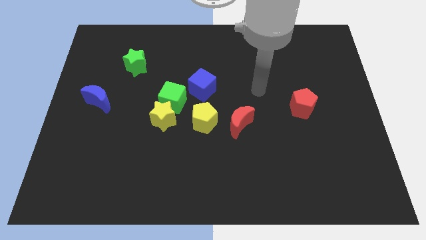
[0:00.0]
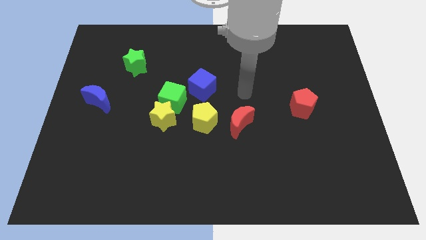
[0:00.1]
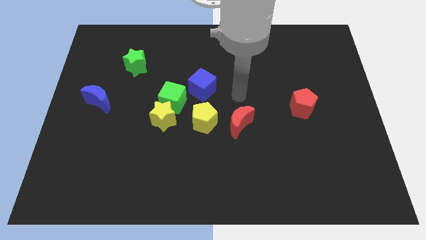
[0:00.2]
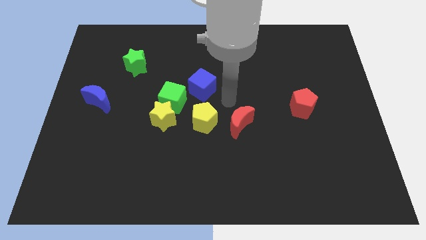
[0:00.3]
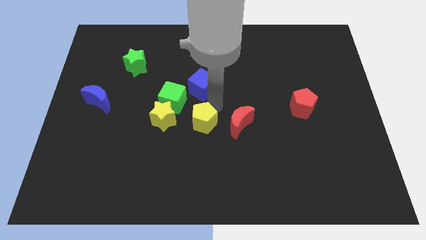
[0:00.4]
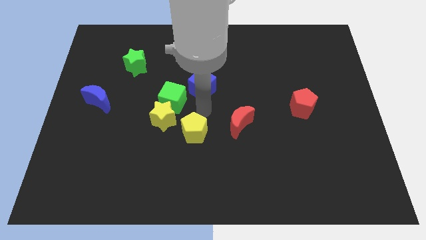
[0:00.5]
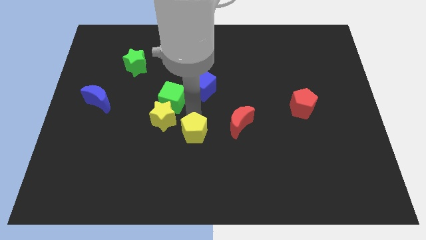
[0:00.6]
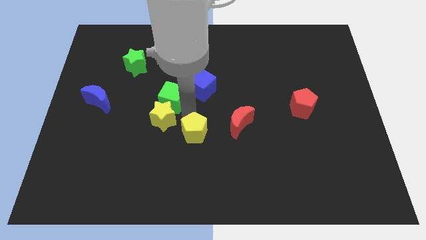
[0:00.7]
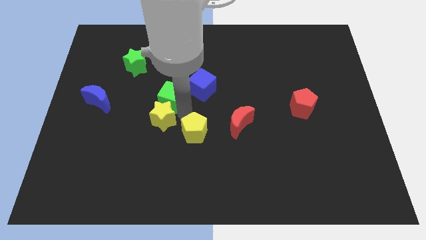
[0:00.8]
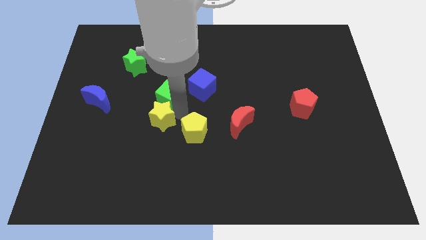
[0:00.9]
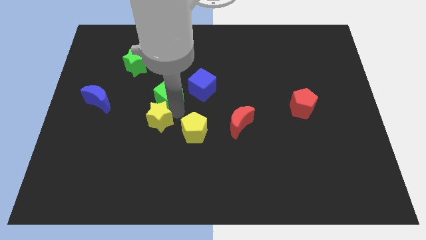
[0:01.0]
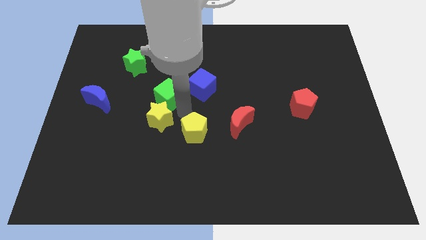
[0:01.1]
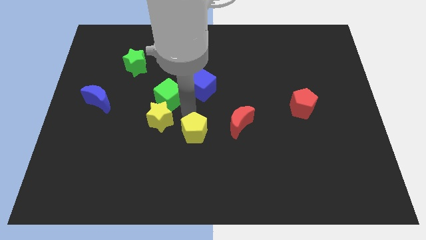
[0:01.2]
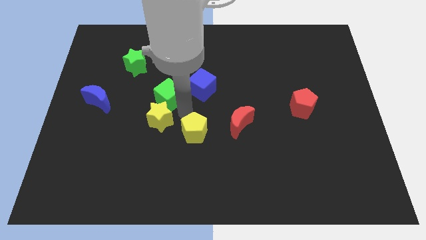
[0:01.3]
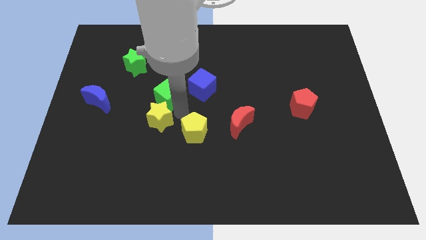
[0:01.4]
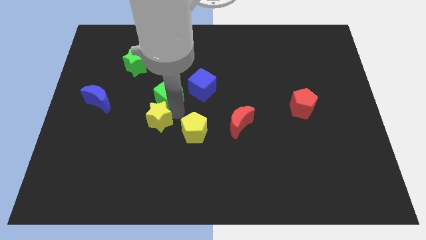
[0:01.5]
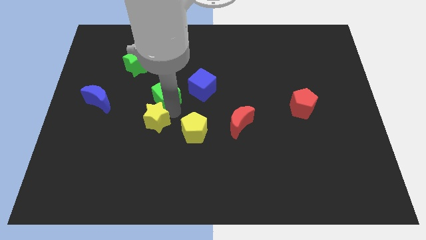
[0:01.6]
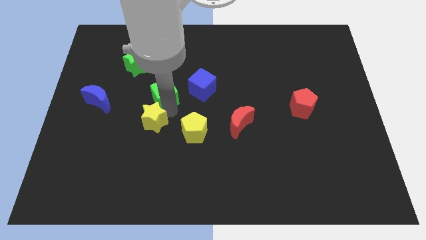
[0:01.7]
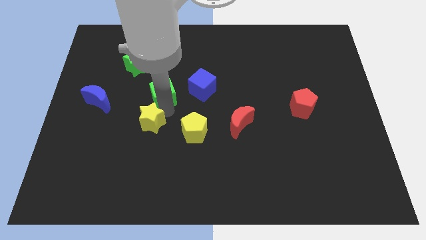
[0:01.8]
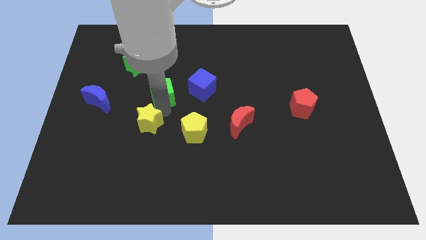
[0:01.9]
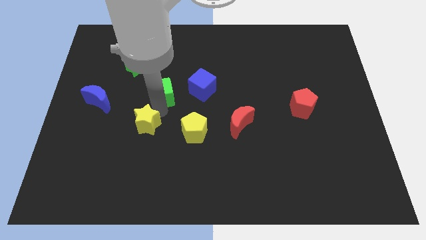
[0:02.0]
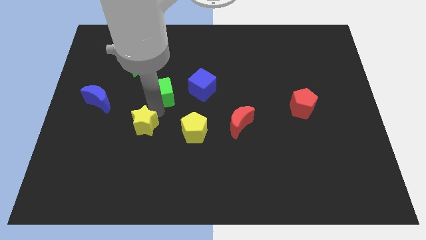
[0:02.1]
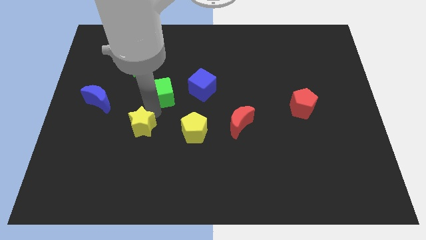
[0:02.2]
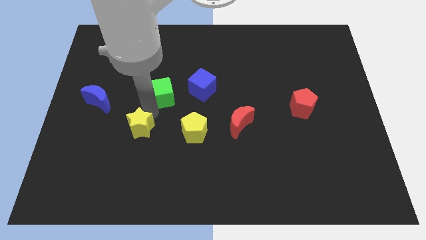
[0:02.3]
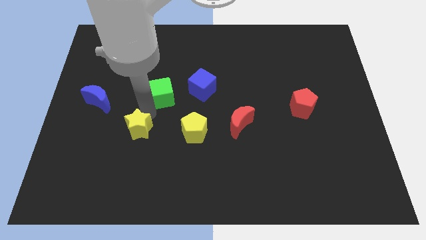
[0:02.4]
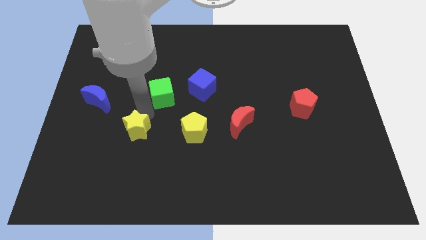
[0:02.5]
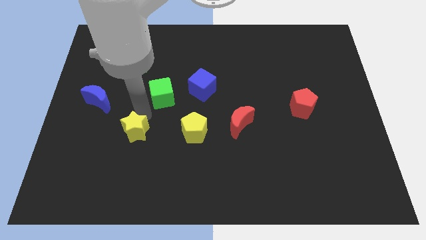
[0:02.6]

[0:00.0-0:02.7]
move the yellow star away from the green cube and yellow pentagon

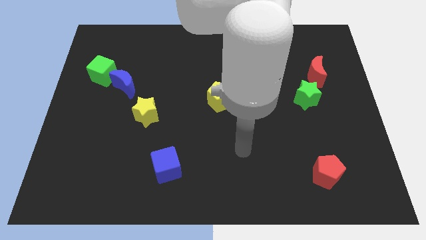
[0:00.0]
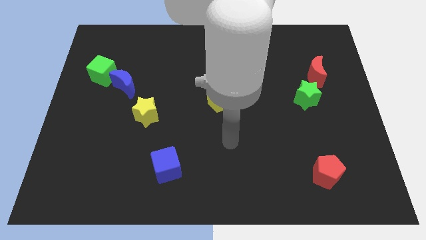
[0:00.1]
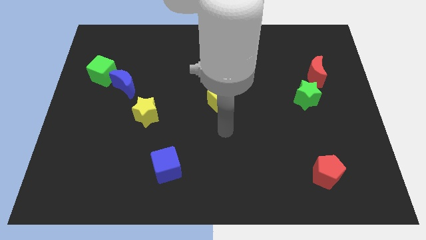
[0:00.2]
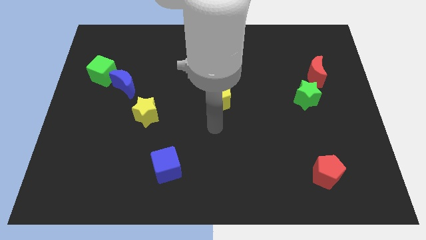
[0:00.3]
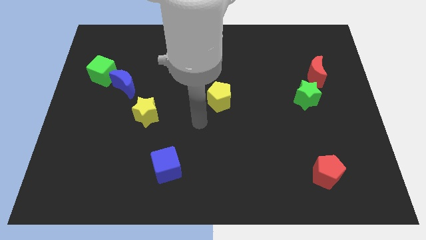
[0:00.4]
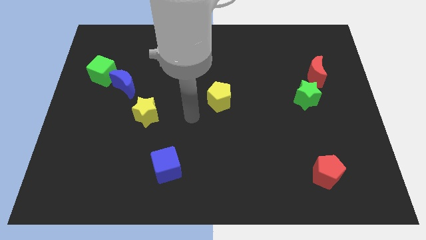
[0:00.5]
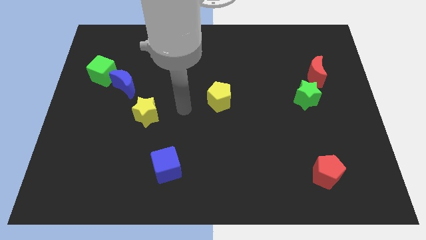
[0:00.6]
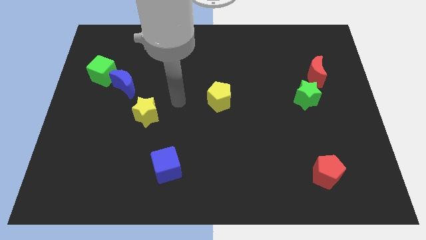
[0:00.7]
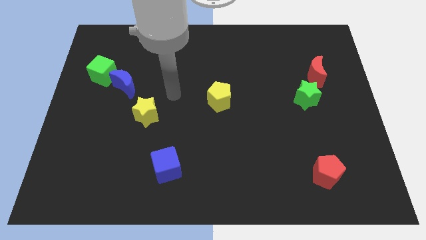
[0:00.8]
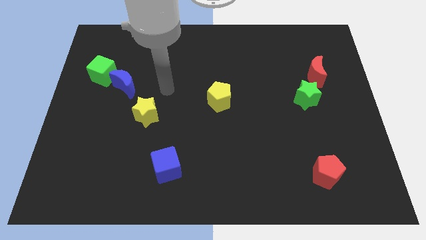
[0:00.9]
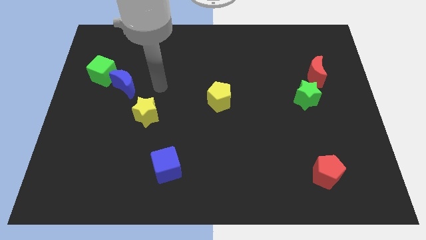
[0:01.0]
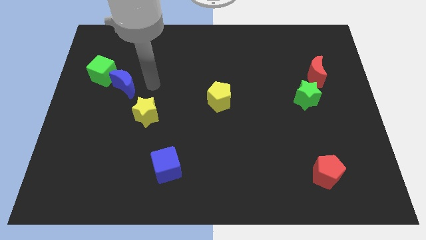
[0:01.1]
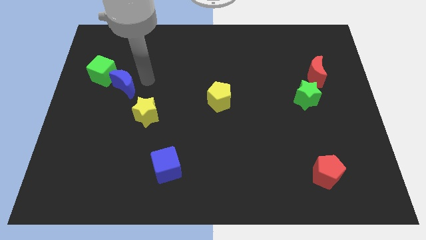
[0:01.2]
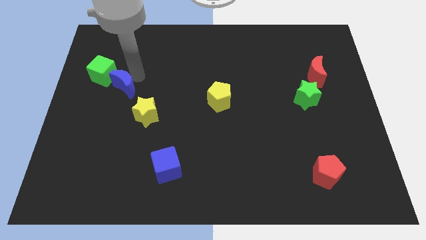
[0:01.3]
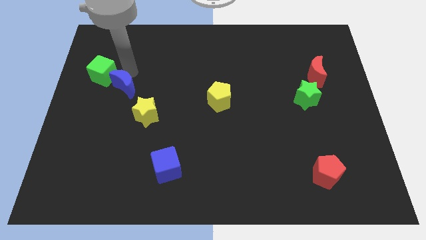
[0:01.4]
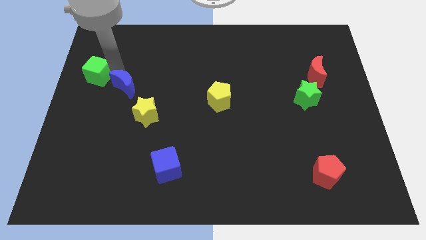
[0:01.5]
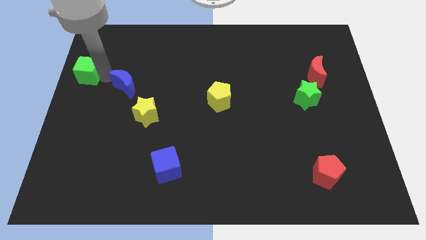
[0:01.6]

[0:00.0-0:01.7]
separate the blue moon from the green cube

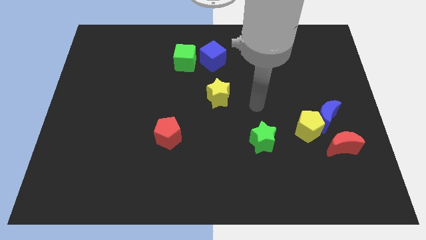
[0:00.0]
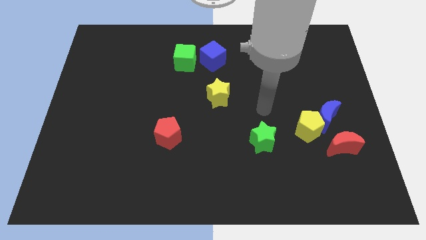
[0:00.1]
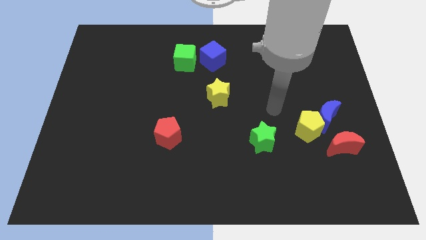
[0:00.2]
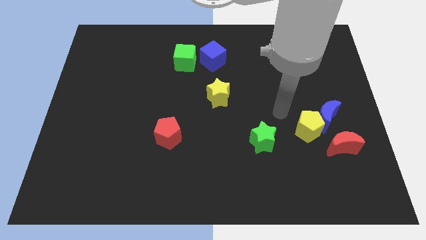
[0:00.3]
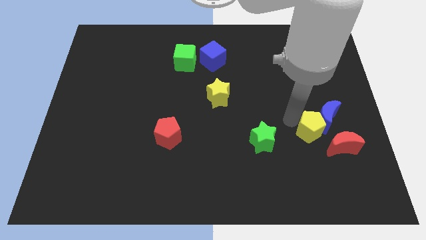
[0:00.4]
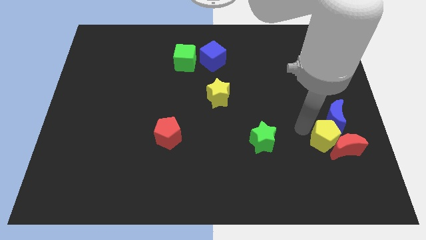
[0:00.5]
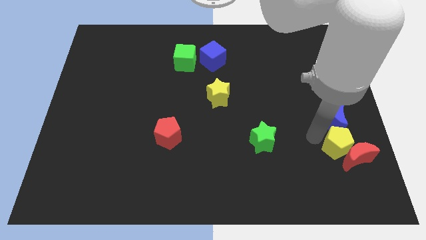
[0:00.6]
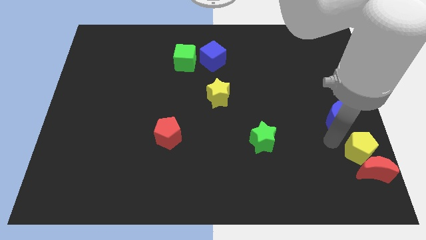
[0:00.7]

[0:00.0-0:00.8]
separate the blue moon from the yellow pentagon and red moon

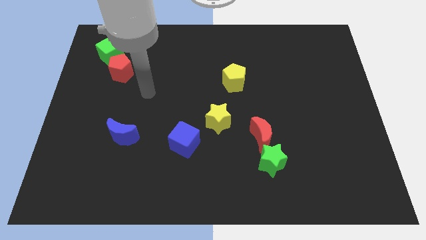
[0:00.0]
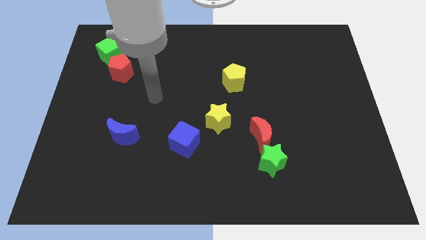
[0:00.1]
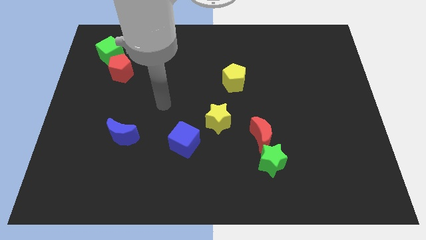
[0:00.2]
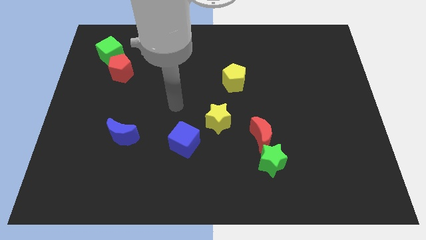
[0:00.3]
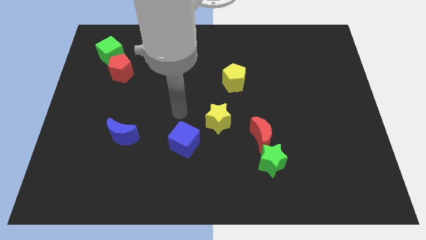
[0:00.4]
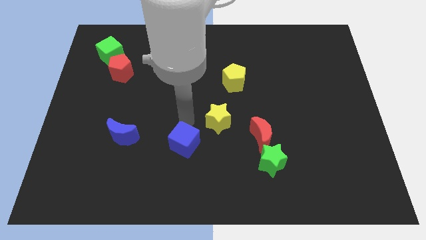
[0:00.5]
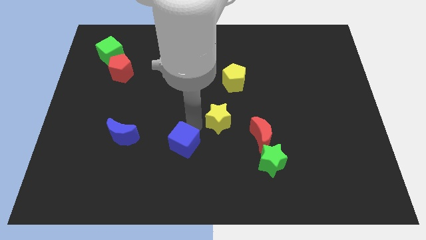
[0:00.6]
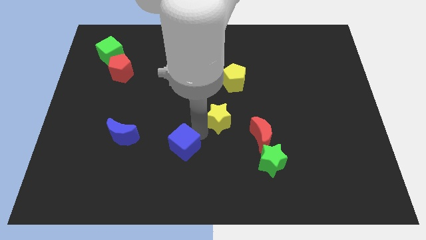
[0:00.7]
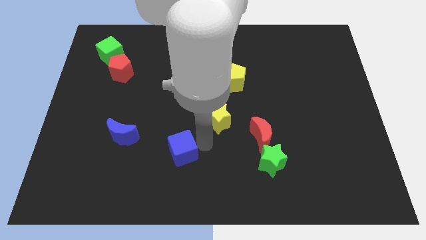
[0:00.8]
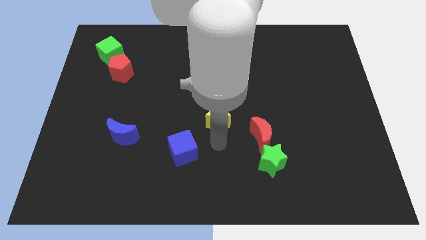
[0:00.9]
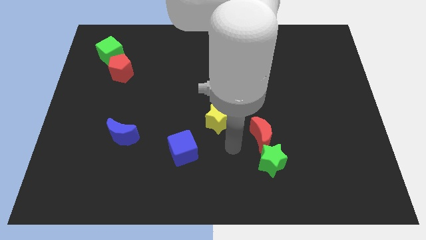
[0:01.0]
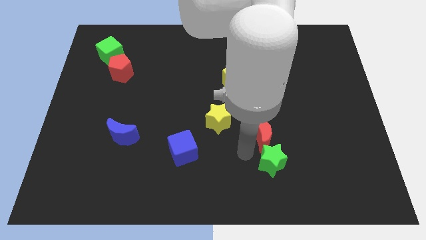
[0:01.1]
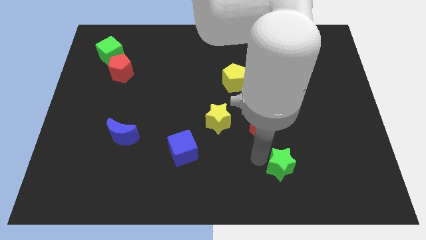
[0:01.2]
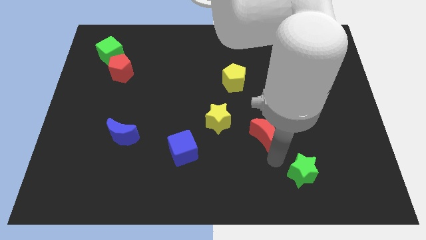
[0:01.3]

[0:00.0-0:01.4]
move the red moon away from the green star

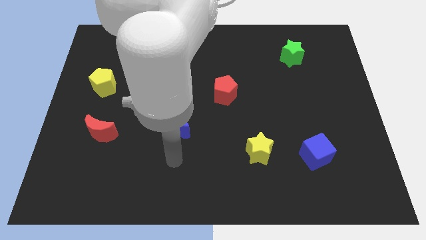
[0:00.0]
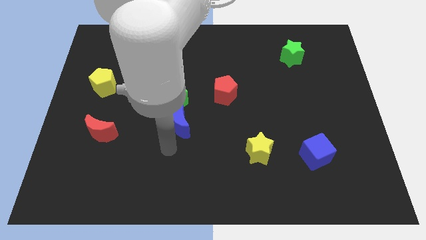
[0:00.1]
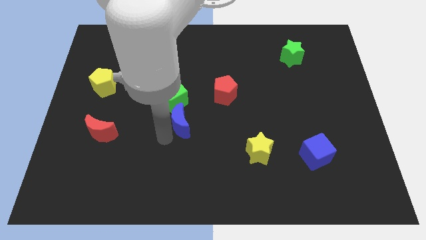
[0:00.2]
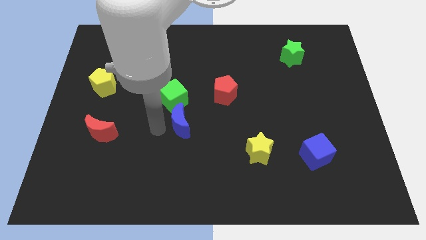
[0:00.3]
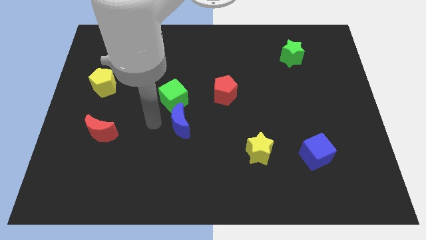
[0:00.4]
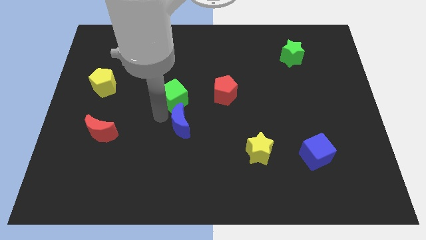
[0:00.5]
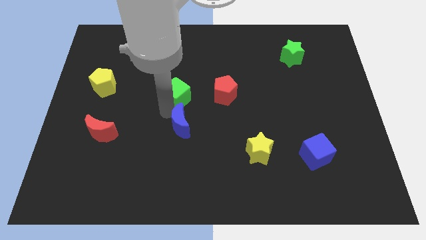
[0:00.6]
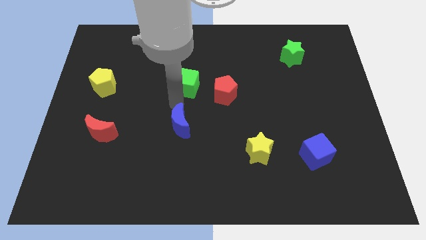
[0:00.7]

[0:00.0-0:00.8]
move the blue moon away from the green cube

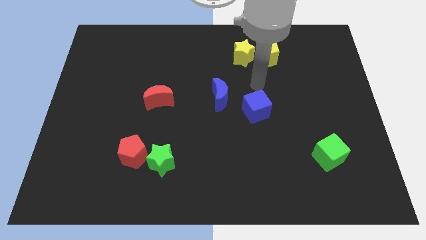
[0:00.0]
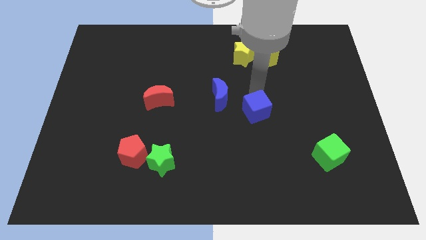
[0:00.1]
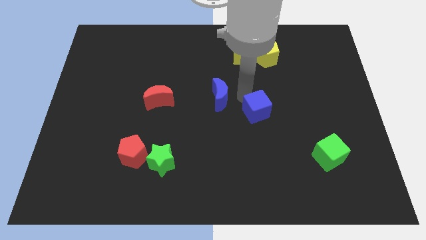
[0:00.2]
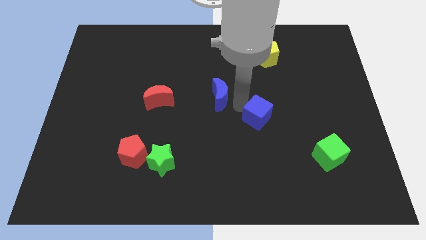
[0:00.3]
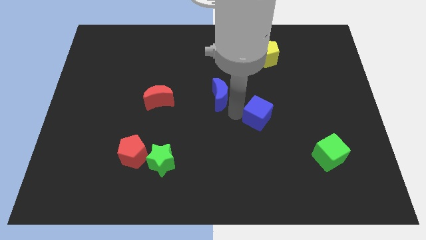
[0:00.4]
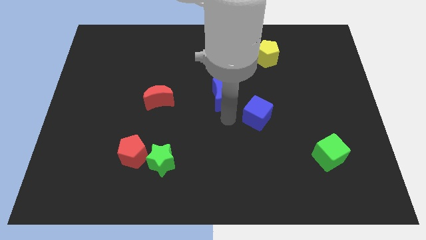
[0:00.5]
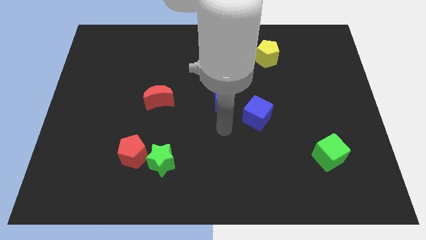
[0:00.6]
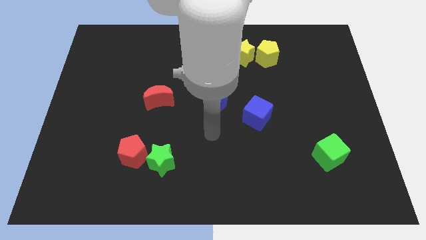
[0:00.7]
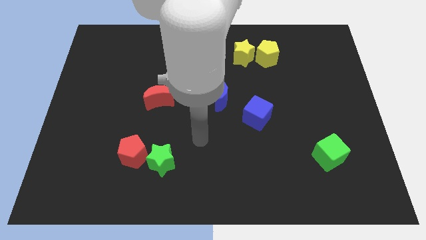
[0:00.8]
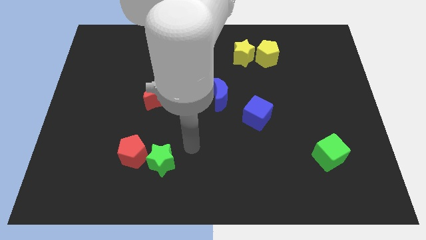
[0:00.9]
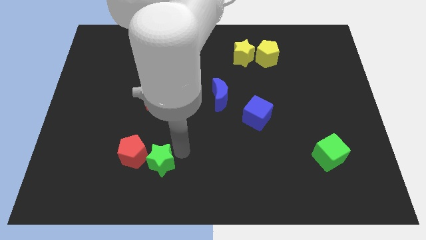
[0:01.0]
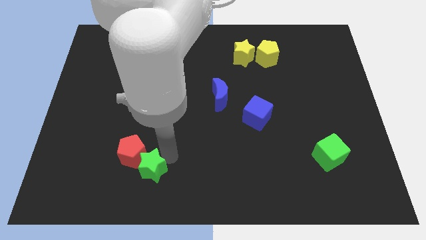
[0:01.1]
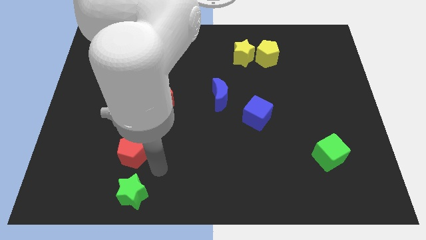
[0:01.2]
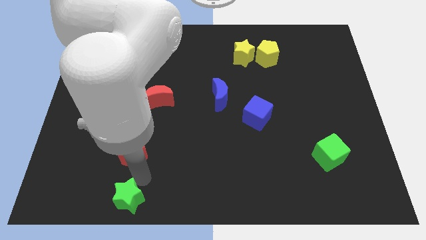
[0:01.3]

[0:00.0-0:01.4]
separate the red pentagon from the green star

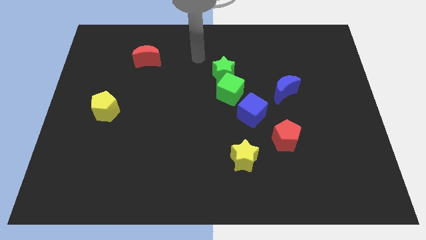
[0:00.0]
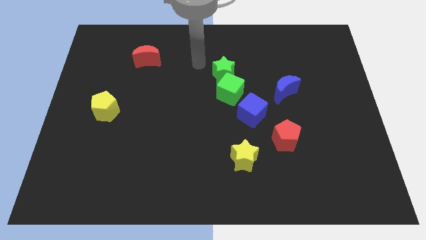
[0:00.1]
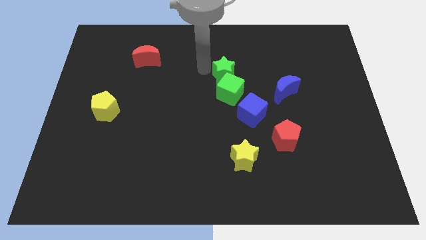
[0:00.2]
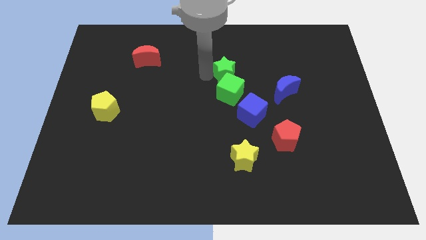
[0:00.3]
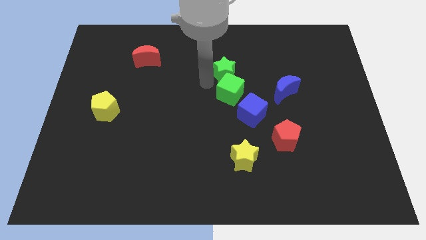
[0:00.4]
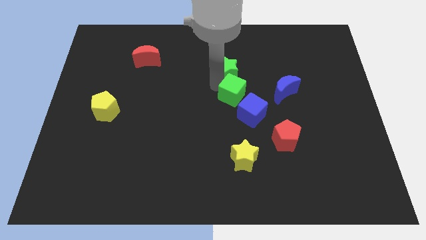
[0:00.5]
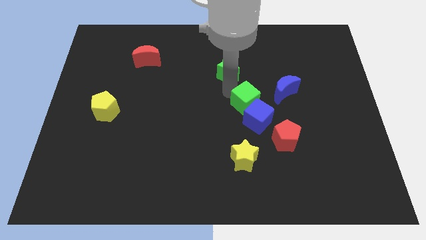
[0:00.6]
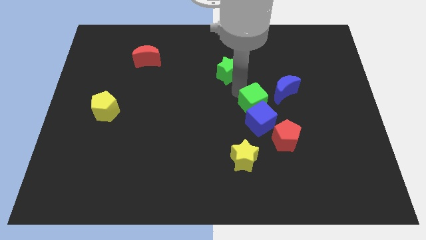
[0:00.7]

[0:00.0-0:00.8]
separate the green star from the green cube
